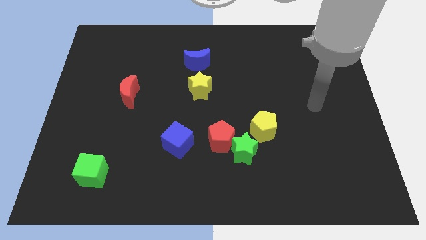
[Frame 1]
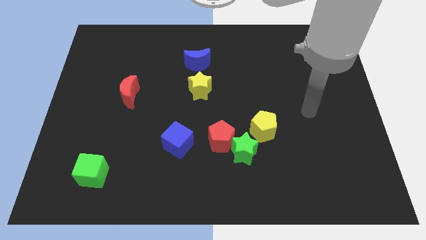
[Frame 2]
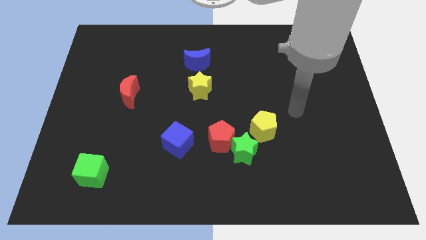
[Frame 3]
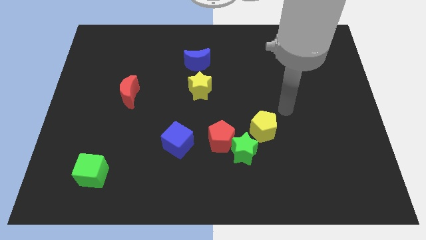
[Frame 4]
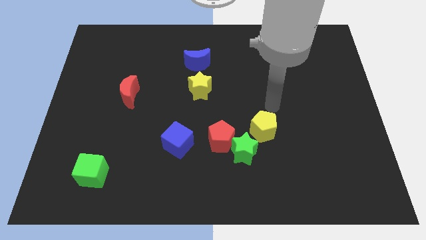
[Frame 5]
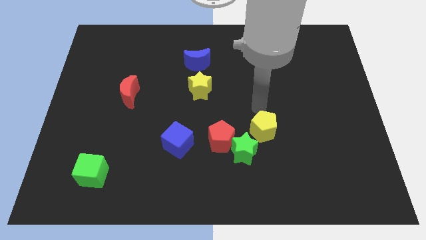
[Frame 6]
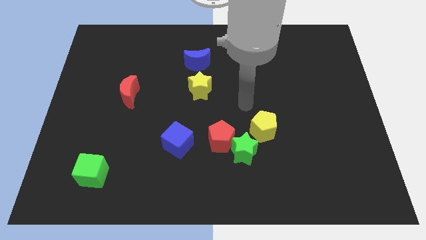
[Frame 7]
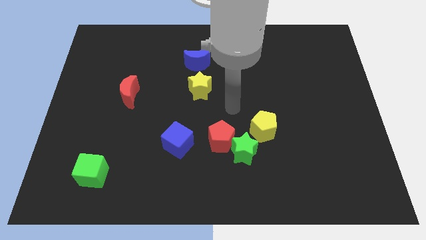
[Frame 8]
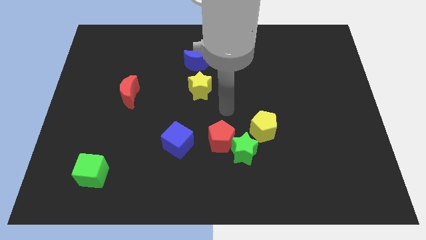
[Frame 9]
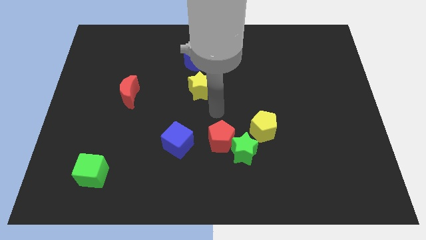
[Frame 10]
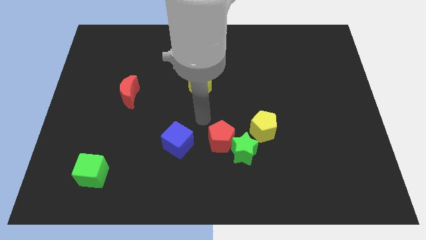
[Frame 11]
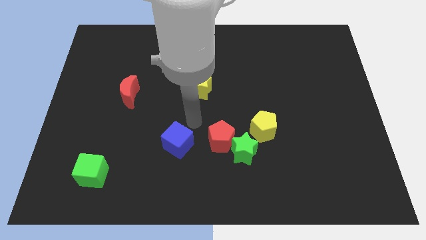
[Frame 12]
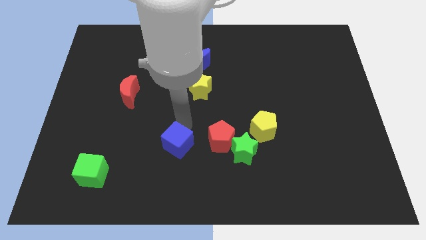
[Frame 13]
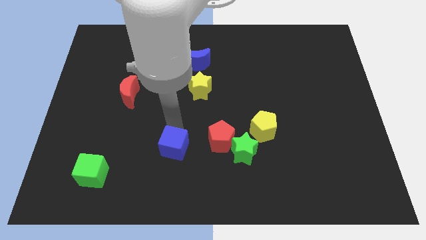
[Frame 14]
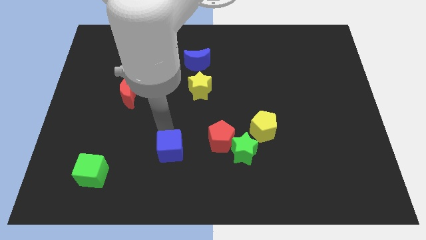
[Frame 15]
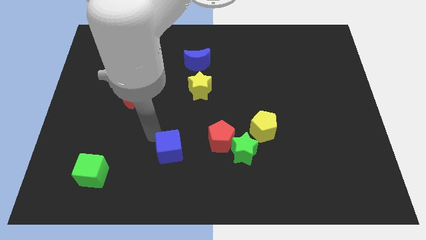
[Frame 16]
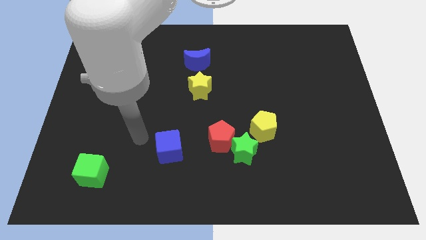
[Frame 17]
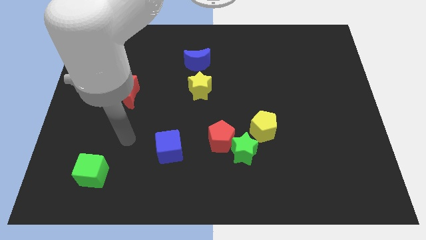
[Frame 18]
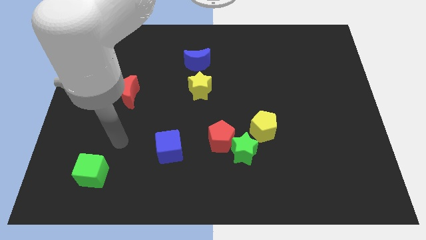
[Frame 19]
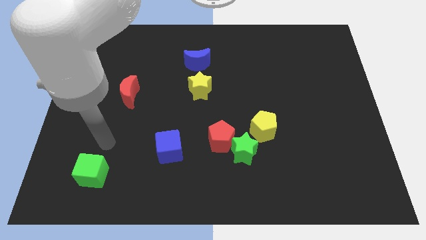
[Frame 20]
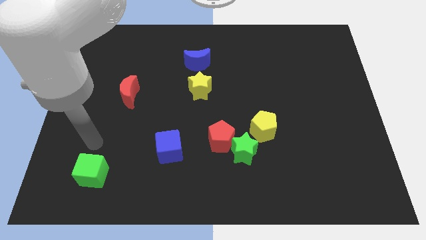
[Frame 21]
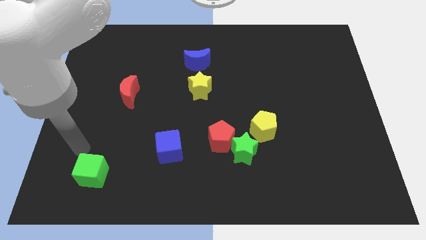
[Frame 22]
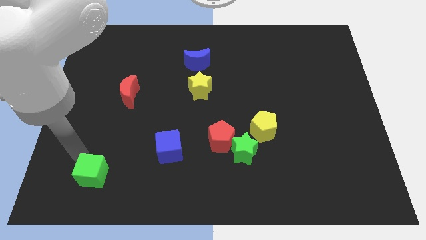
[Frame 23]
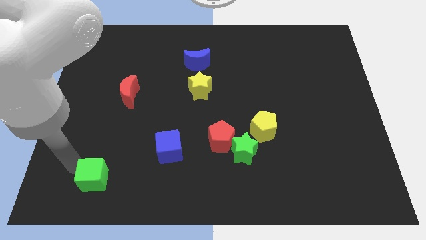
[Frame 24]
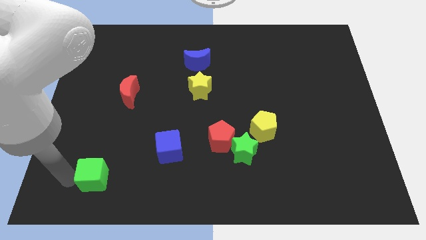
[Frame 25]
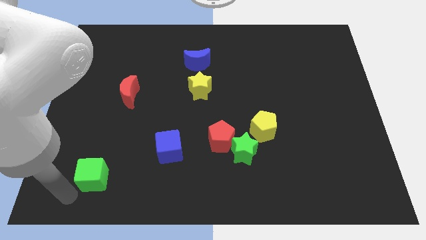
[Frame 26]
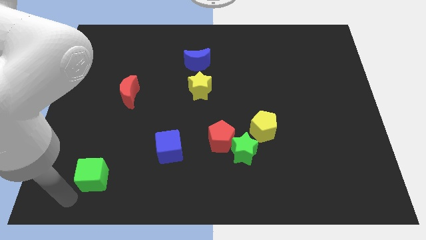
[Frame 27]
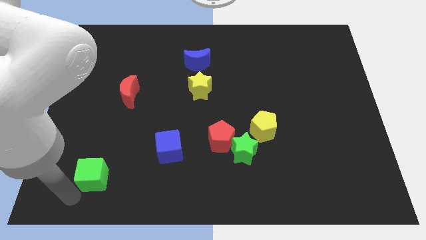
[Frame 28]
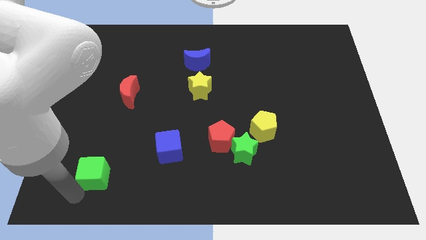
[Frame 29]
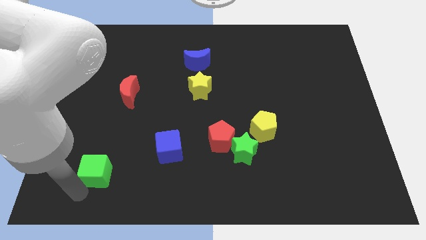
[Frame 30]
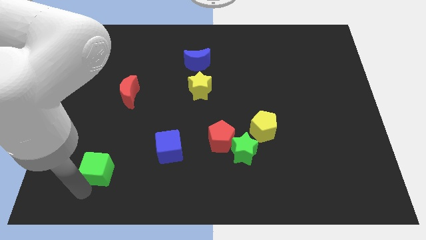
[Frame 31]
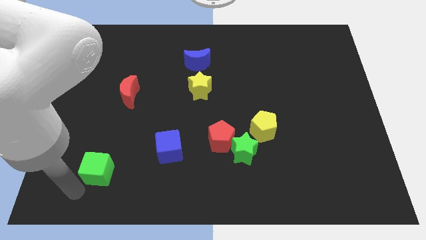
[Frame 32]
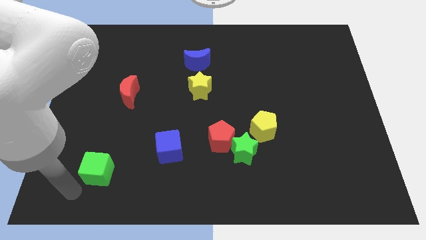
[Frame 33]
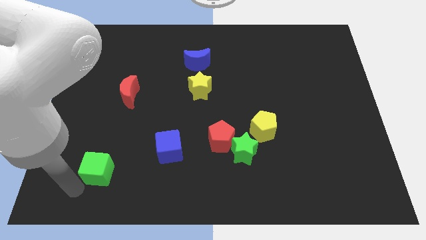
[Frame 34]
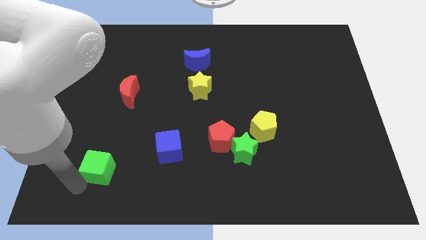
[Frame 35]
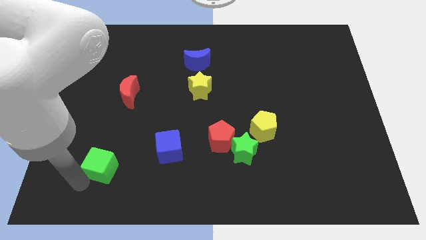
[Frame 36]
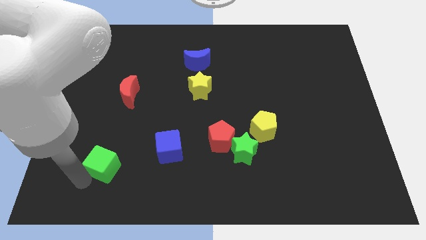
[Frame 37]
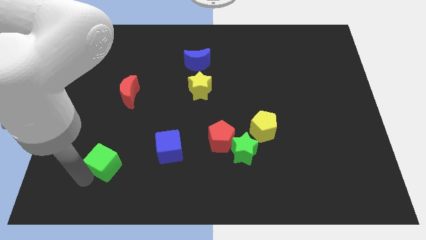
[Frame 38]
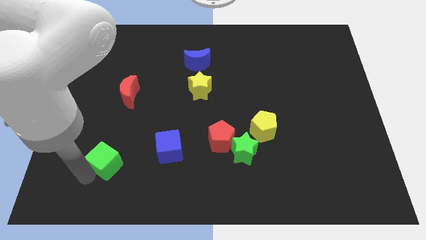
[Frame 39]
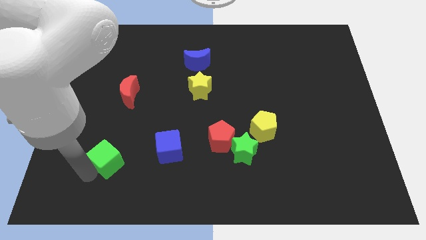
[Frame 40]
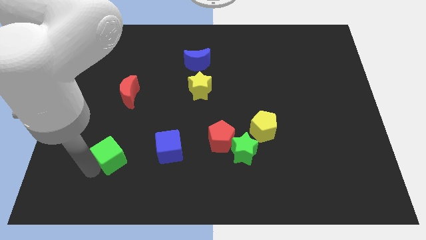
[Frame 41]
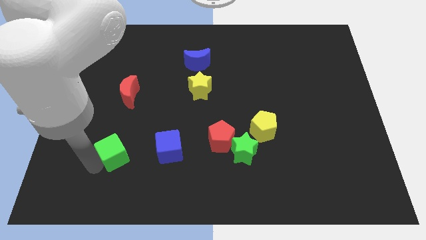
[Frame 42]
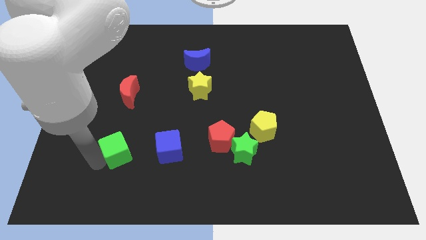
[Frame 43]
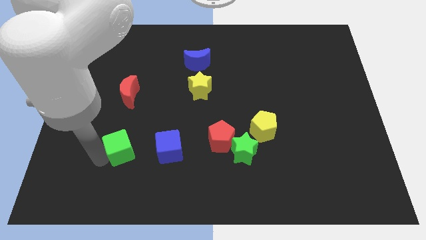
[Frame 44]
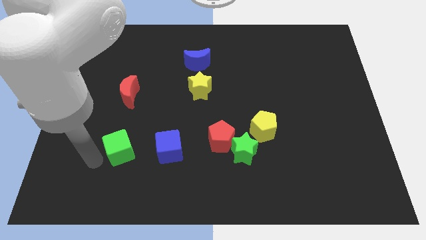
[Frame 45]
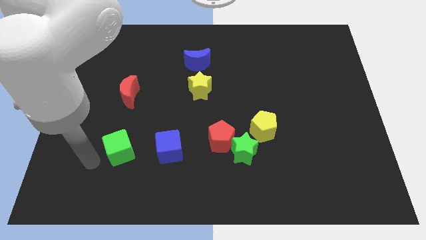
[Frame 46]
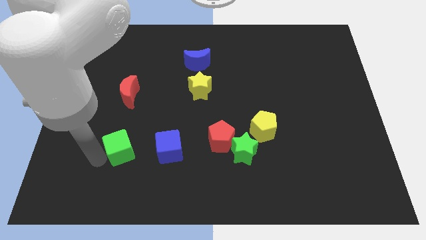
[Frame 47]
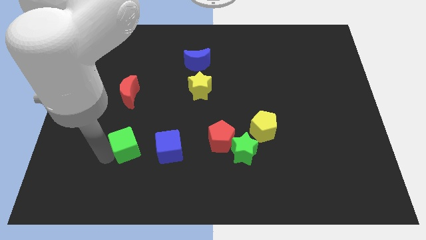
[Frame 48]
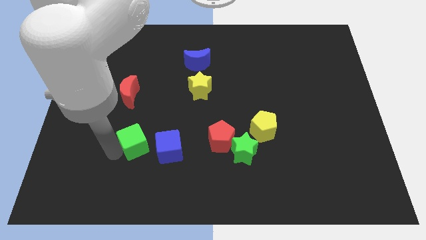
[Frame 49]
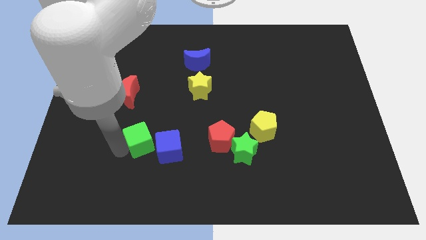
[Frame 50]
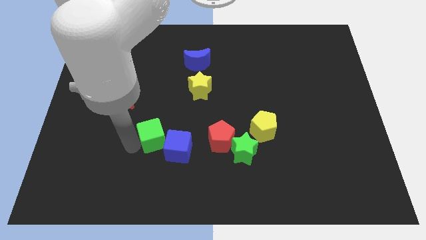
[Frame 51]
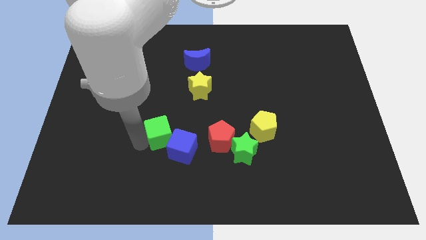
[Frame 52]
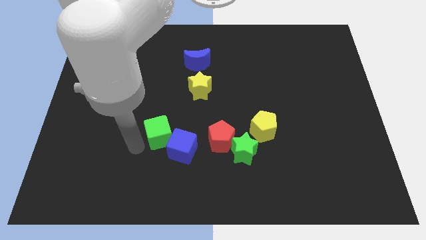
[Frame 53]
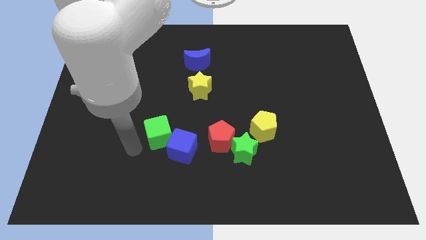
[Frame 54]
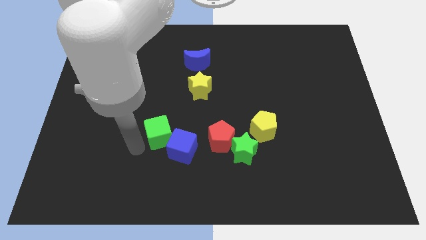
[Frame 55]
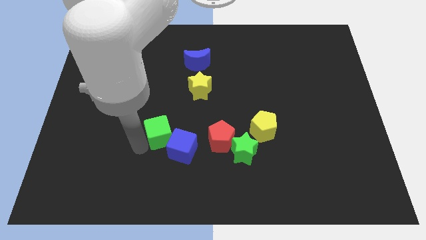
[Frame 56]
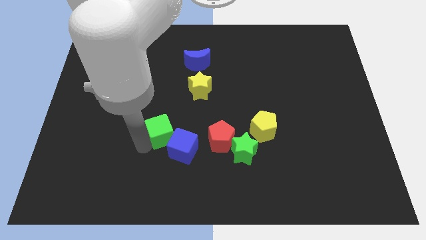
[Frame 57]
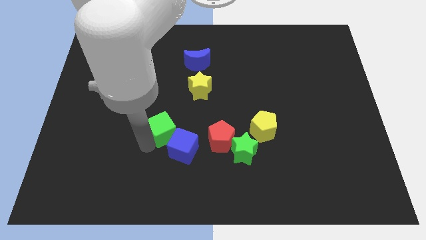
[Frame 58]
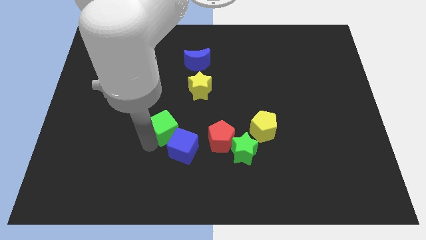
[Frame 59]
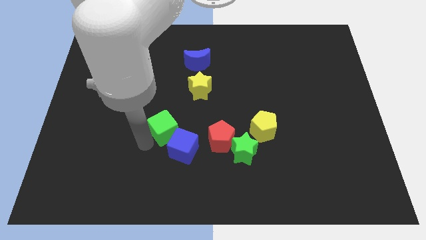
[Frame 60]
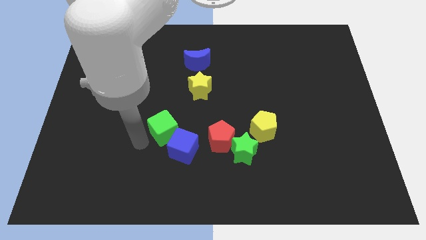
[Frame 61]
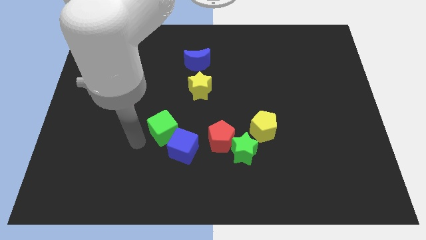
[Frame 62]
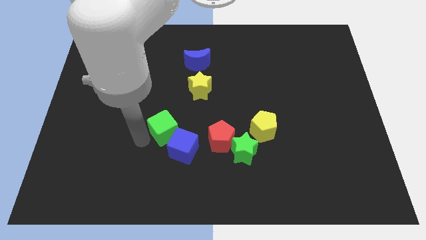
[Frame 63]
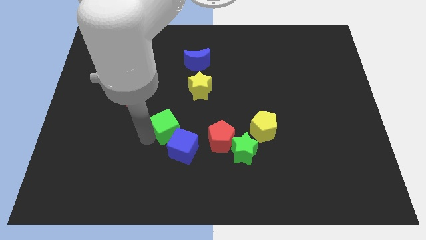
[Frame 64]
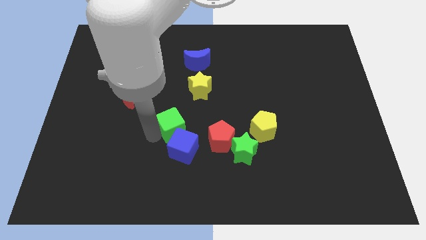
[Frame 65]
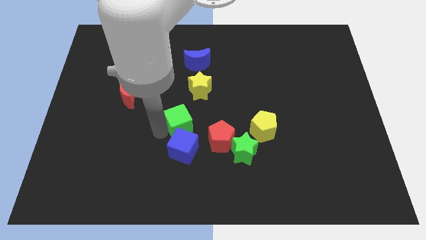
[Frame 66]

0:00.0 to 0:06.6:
push the green cube below the yellow star
